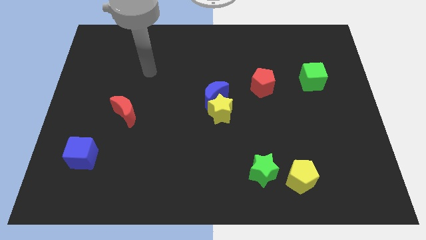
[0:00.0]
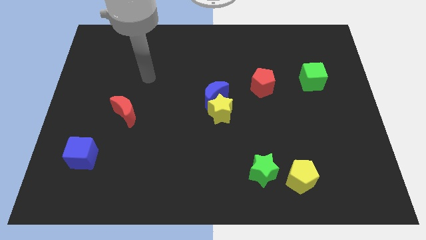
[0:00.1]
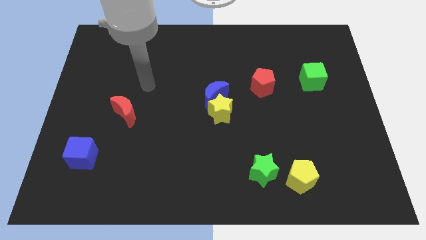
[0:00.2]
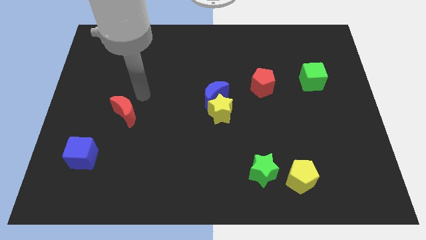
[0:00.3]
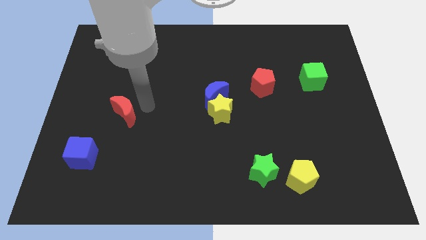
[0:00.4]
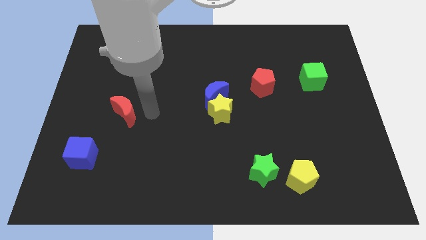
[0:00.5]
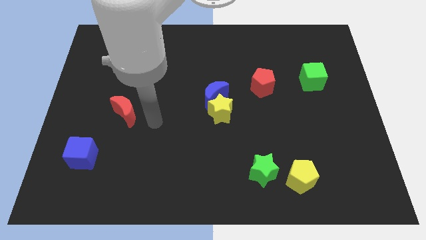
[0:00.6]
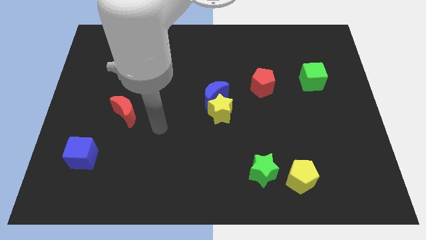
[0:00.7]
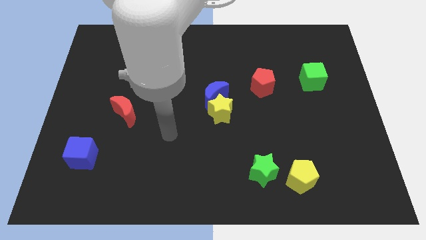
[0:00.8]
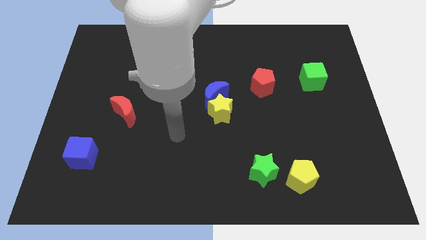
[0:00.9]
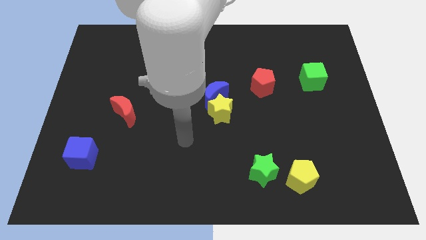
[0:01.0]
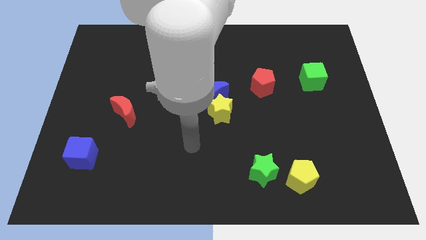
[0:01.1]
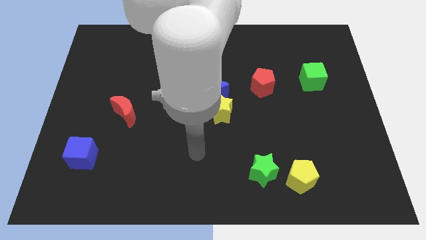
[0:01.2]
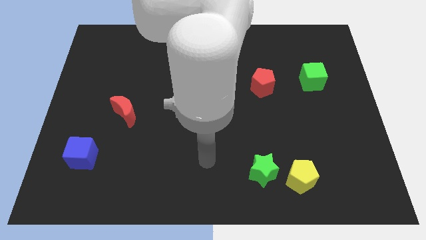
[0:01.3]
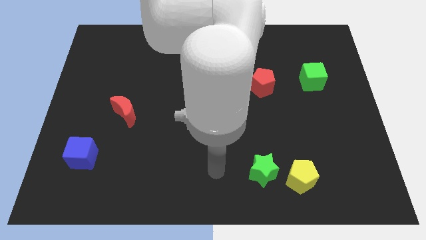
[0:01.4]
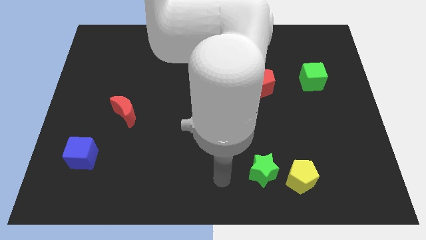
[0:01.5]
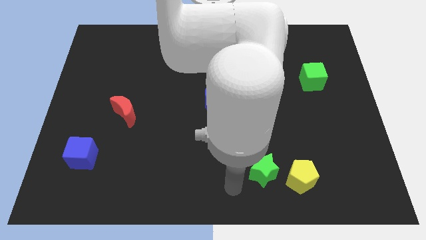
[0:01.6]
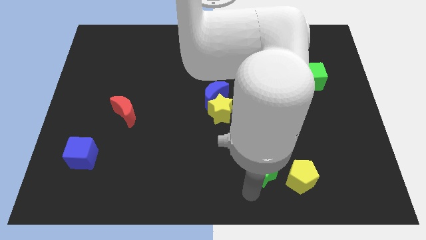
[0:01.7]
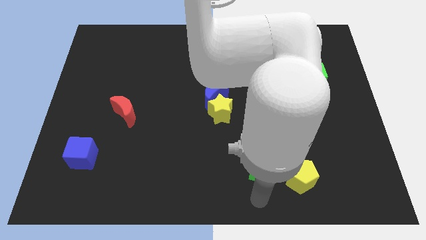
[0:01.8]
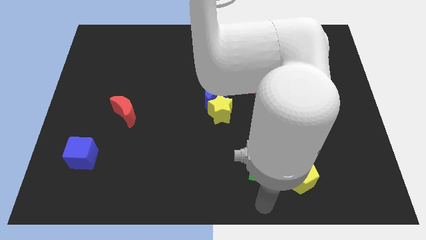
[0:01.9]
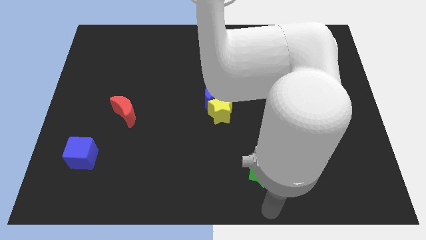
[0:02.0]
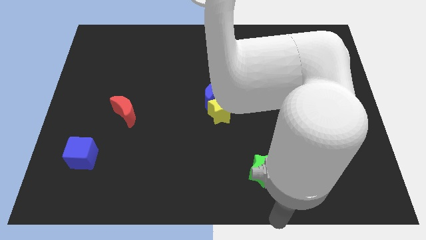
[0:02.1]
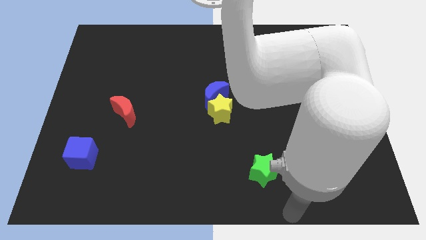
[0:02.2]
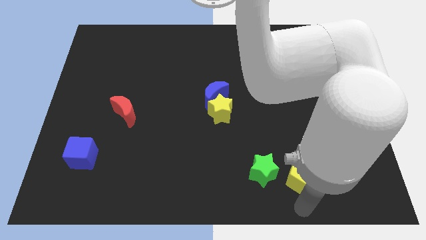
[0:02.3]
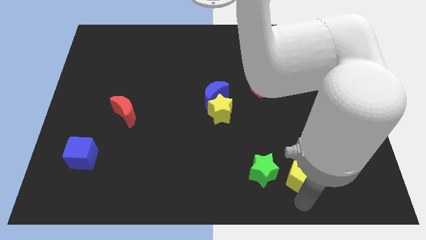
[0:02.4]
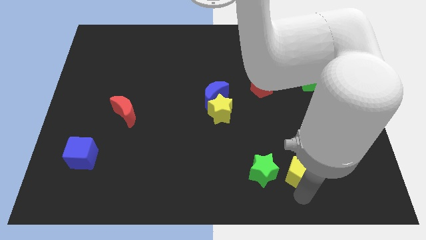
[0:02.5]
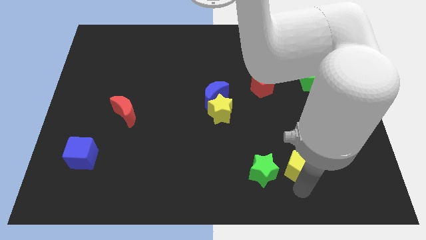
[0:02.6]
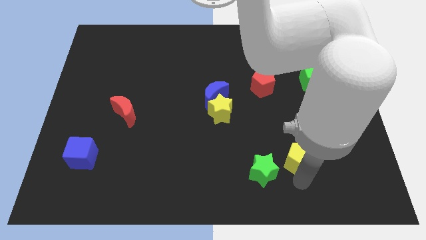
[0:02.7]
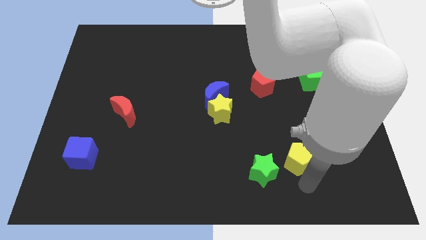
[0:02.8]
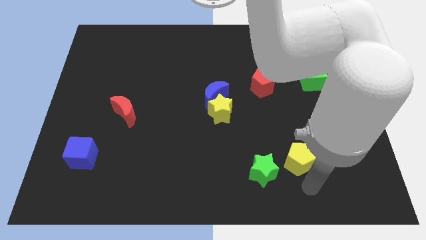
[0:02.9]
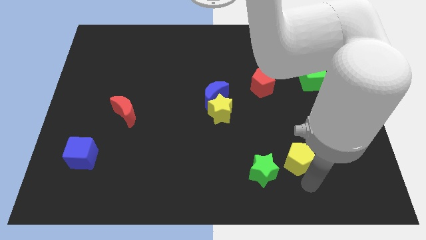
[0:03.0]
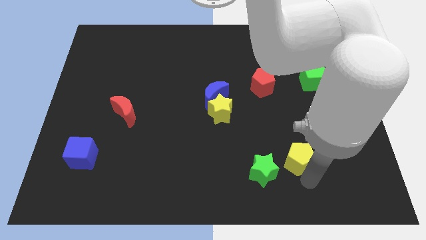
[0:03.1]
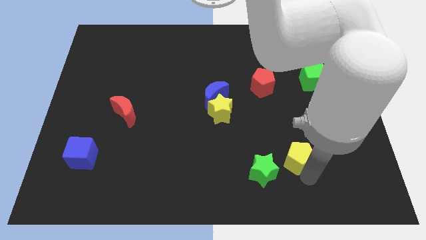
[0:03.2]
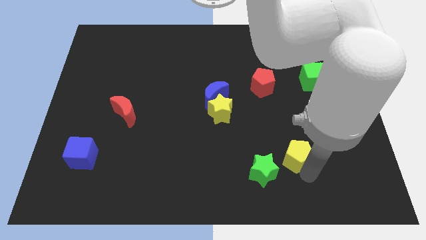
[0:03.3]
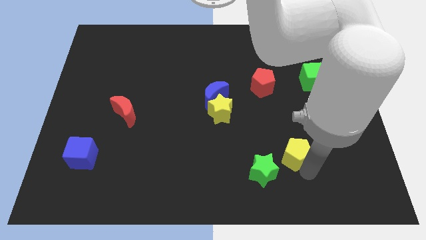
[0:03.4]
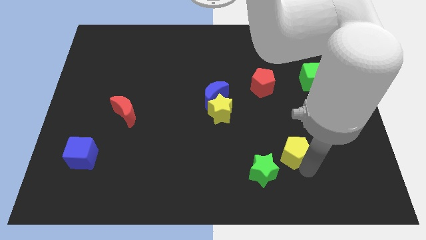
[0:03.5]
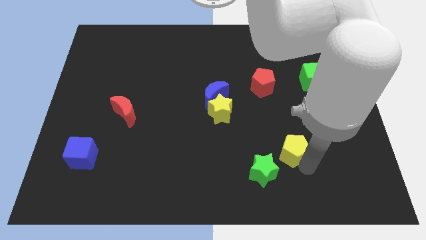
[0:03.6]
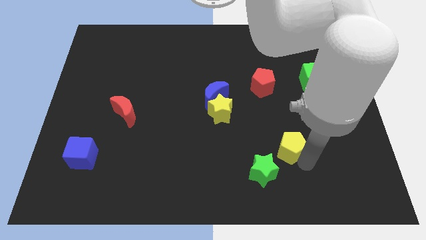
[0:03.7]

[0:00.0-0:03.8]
move the yellow pentagon upwards a bit

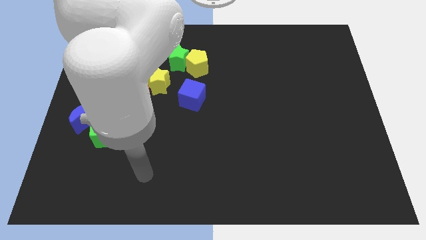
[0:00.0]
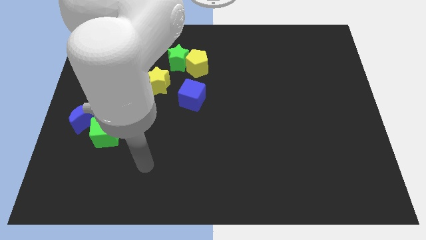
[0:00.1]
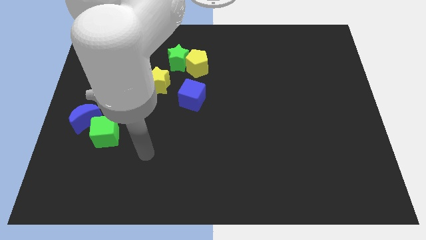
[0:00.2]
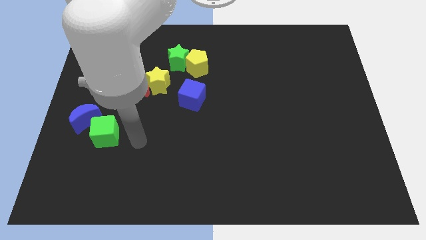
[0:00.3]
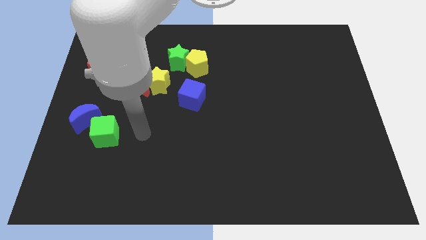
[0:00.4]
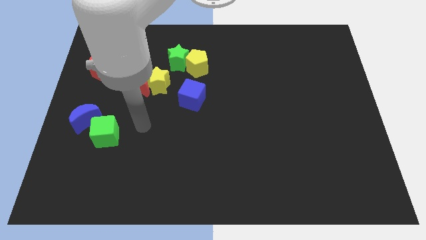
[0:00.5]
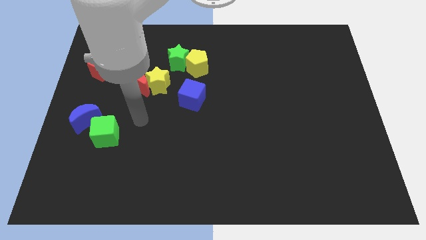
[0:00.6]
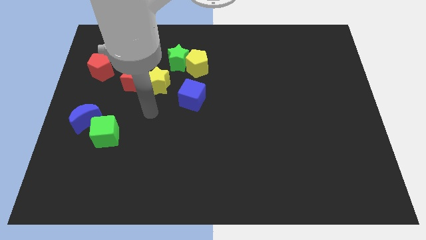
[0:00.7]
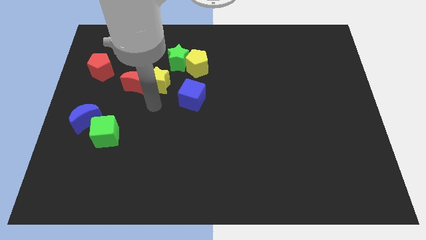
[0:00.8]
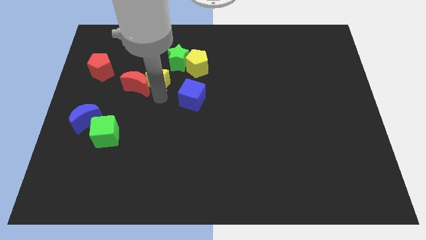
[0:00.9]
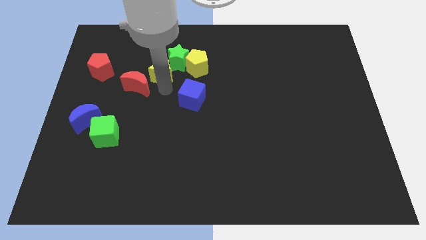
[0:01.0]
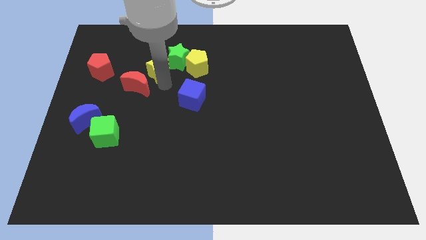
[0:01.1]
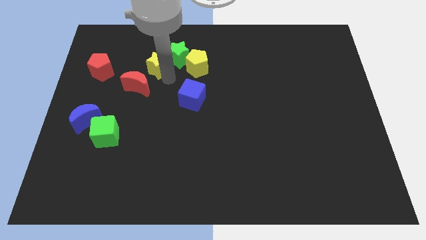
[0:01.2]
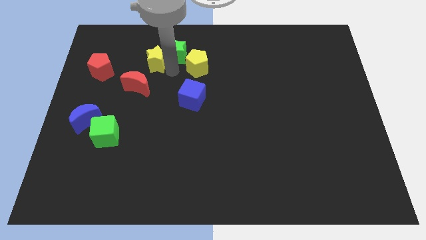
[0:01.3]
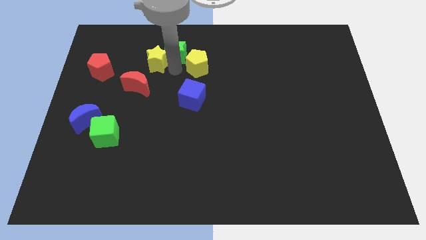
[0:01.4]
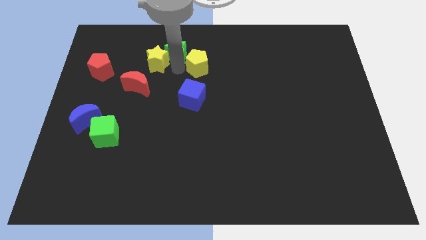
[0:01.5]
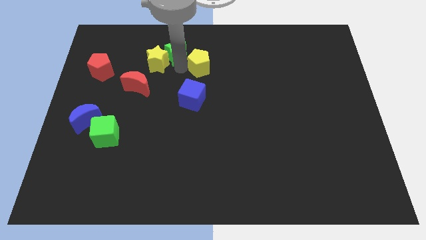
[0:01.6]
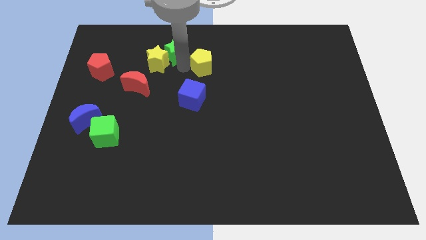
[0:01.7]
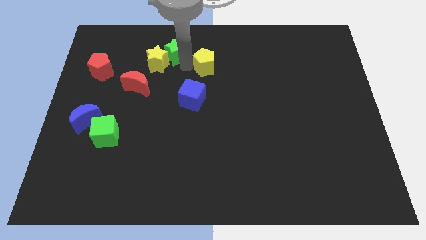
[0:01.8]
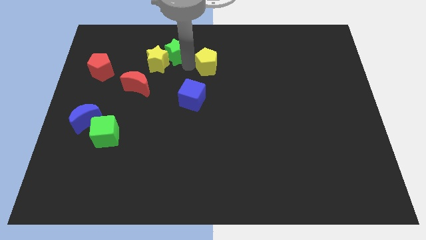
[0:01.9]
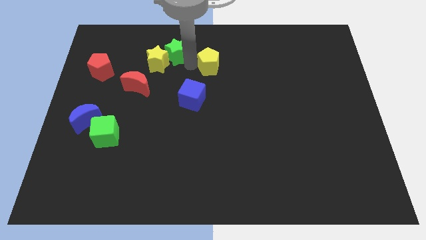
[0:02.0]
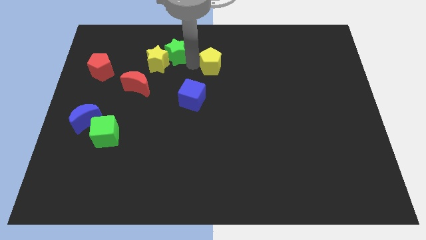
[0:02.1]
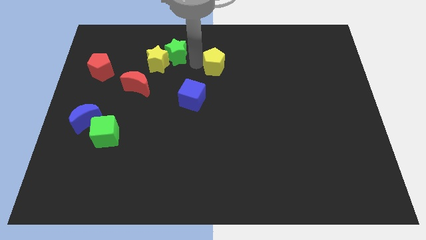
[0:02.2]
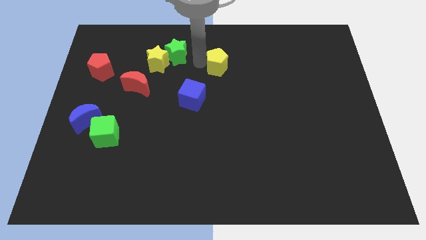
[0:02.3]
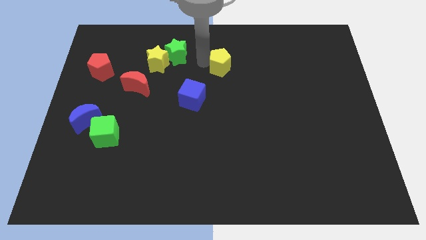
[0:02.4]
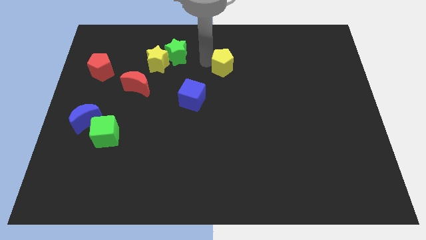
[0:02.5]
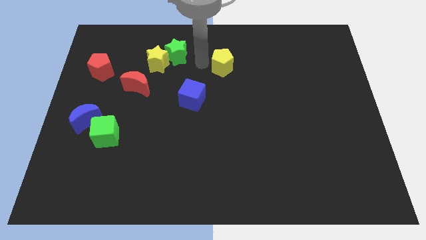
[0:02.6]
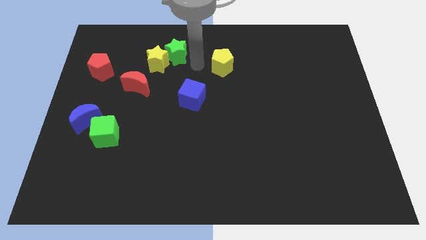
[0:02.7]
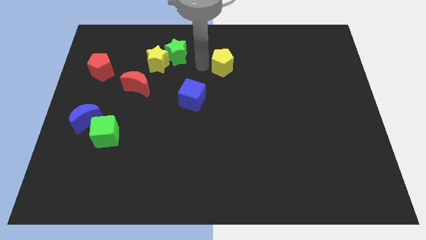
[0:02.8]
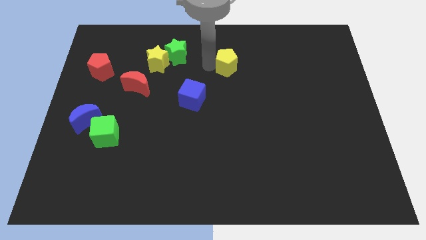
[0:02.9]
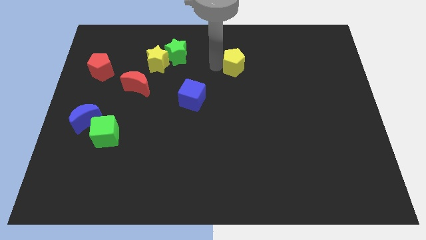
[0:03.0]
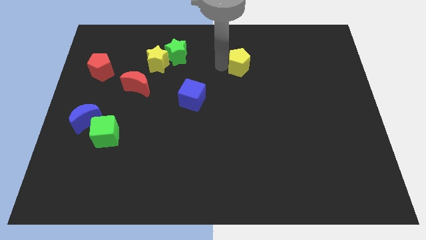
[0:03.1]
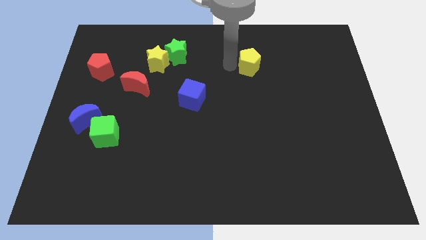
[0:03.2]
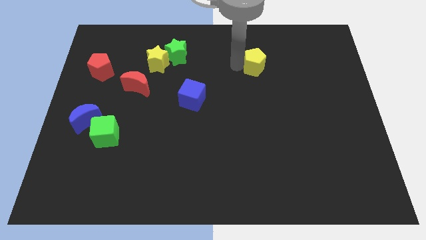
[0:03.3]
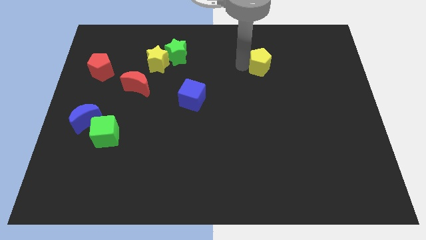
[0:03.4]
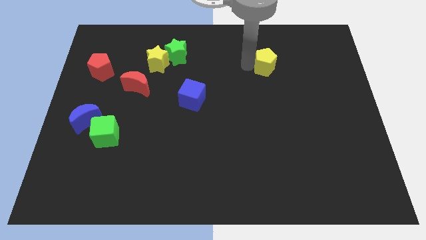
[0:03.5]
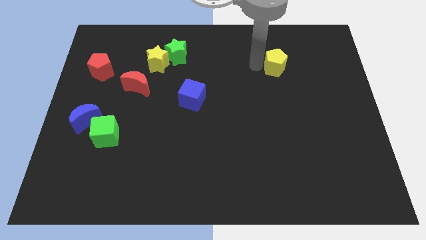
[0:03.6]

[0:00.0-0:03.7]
push the yellow pentagon right

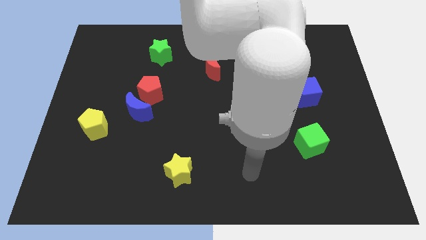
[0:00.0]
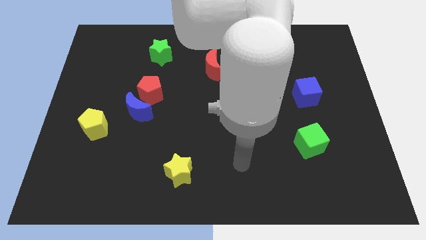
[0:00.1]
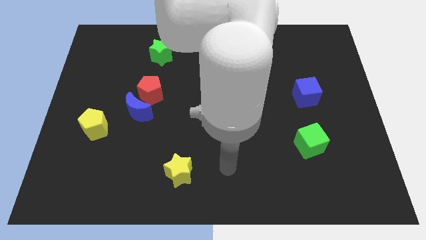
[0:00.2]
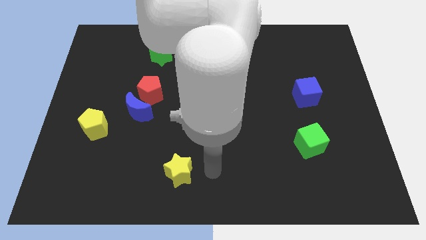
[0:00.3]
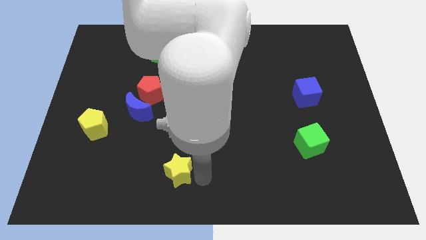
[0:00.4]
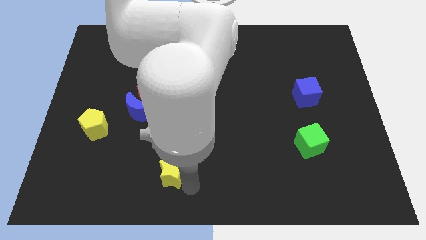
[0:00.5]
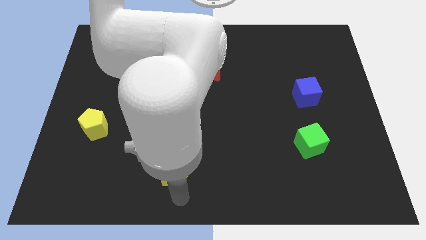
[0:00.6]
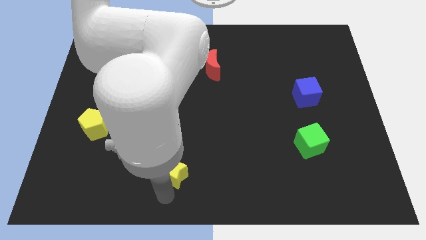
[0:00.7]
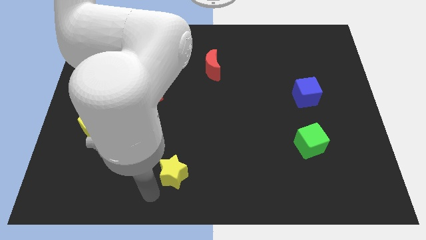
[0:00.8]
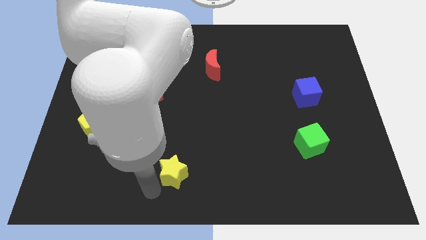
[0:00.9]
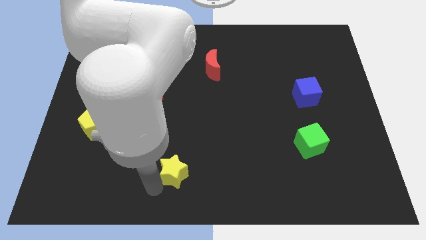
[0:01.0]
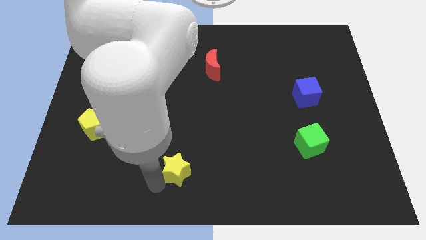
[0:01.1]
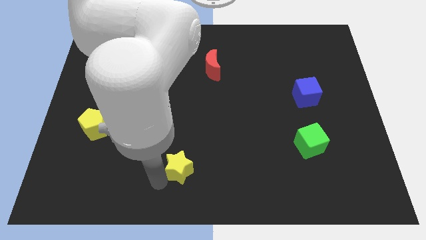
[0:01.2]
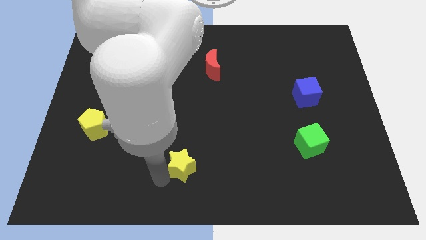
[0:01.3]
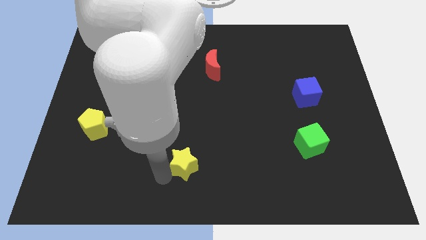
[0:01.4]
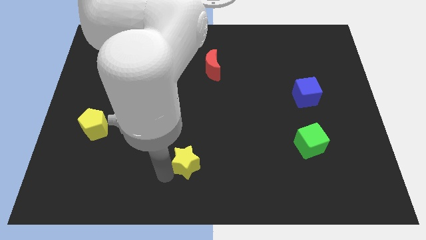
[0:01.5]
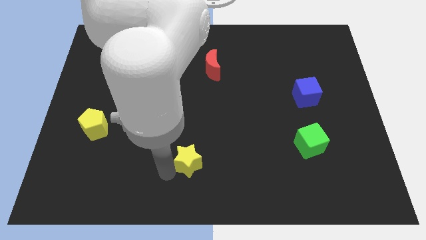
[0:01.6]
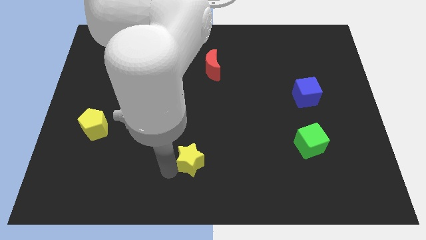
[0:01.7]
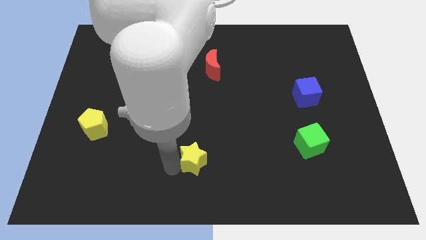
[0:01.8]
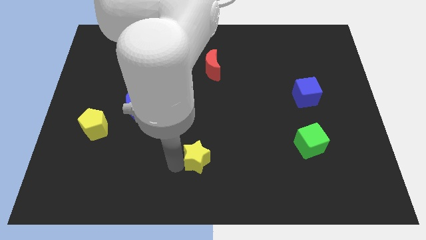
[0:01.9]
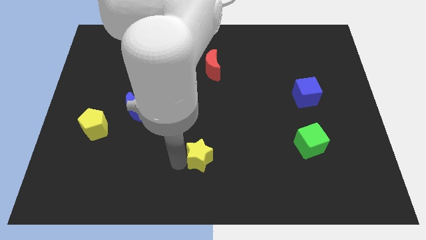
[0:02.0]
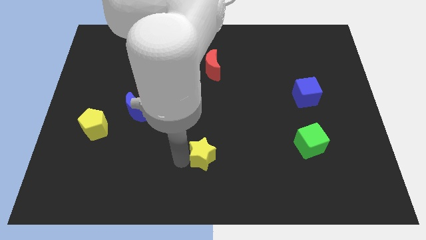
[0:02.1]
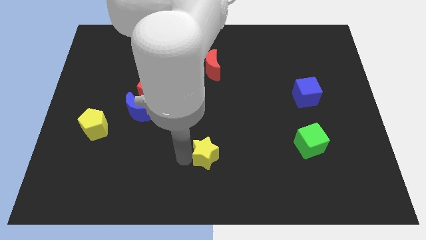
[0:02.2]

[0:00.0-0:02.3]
push the yellow star up and to the right diagonally slightly
